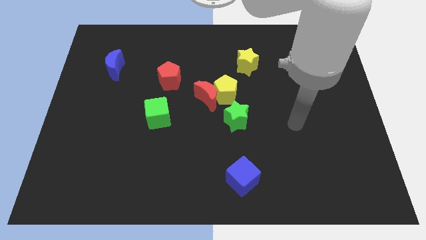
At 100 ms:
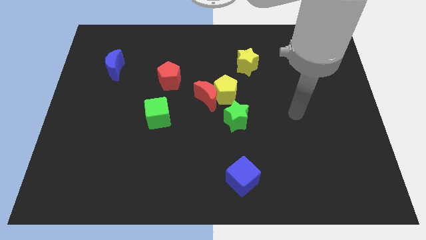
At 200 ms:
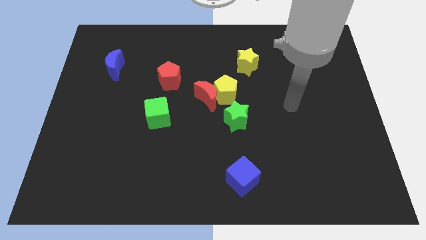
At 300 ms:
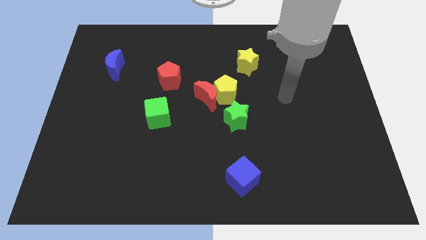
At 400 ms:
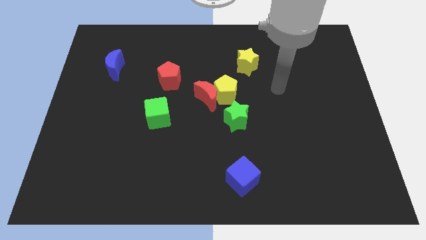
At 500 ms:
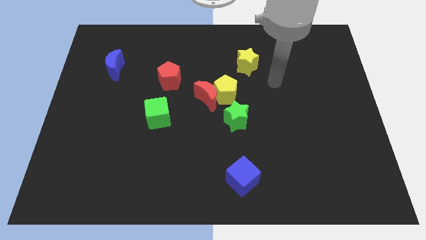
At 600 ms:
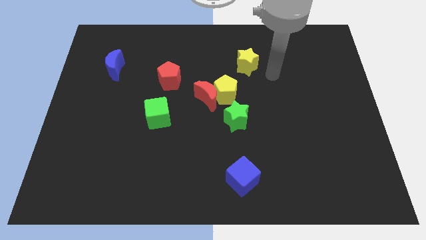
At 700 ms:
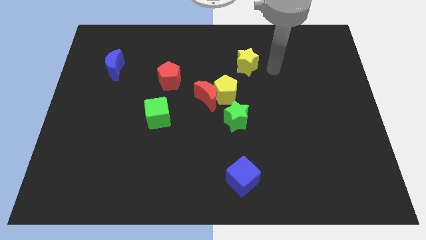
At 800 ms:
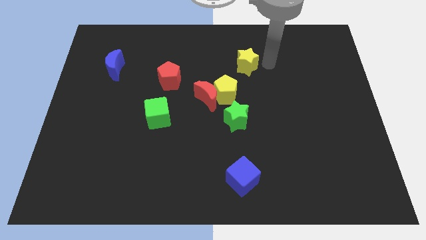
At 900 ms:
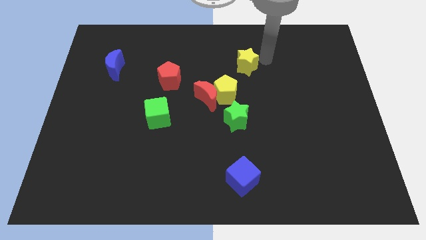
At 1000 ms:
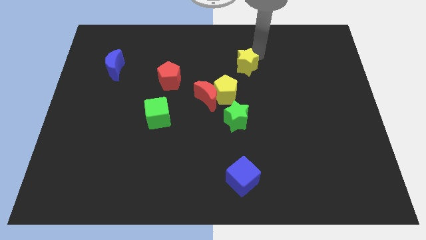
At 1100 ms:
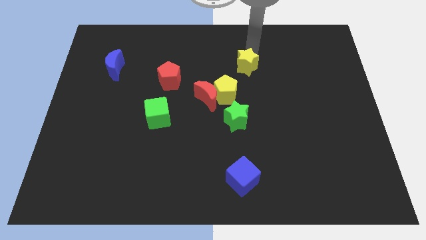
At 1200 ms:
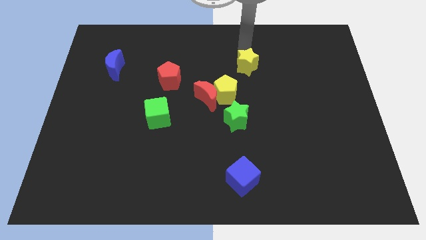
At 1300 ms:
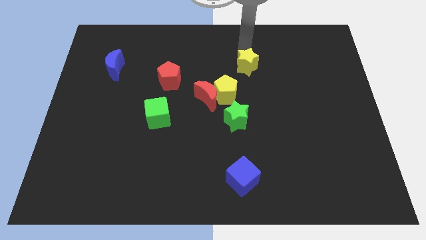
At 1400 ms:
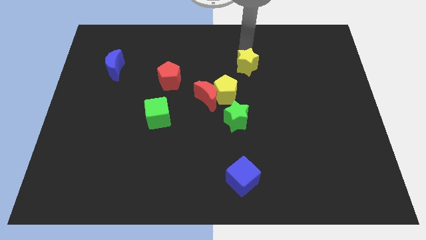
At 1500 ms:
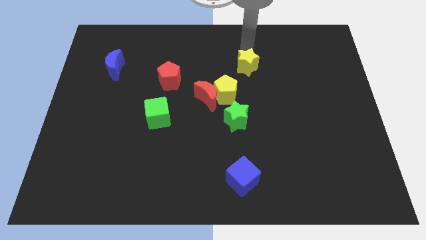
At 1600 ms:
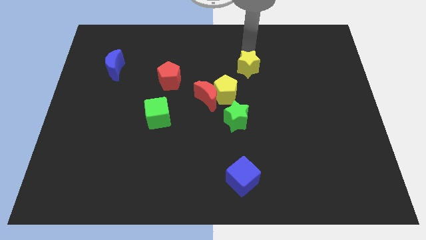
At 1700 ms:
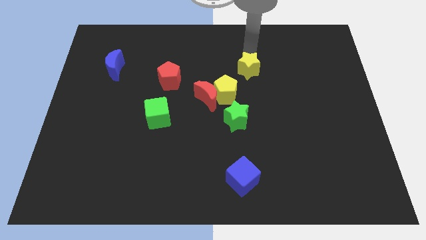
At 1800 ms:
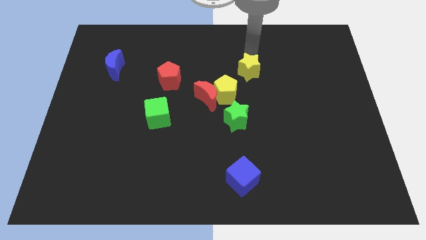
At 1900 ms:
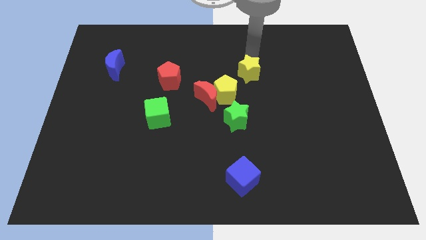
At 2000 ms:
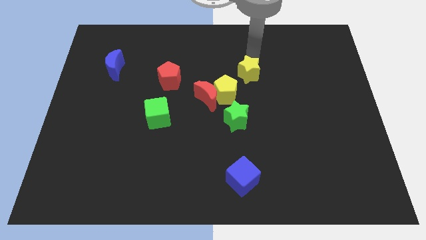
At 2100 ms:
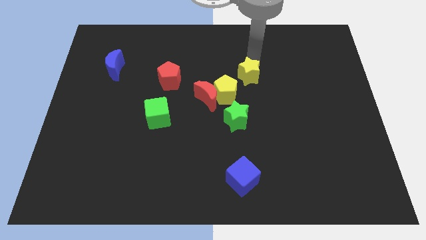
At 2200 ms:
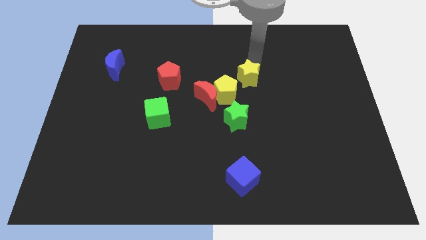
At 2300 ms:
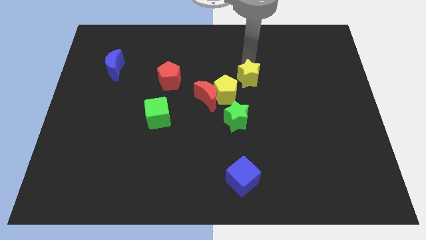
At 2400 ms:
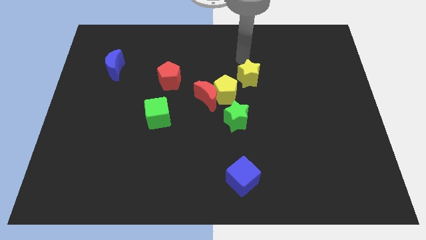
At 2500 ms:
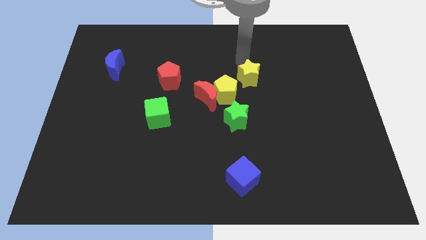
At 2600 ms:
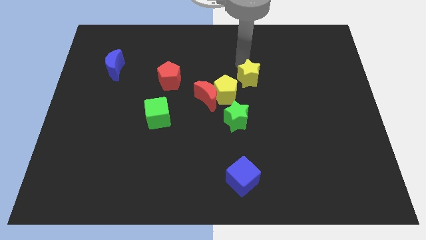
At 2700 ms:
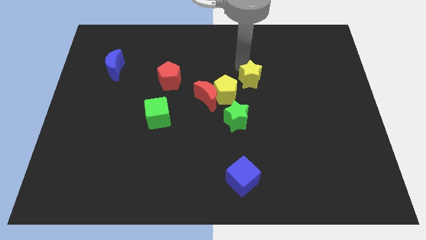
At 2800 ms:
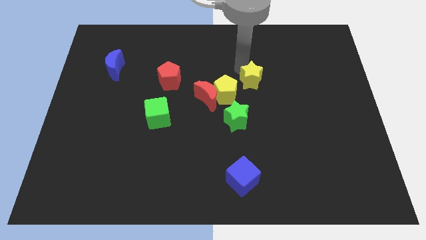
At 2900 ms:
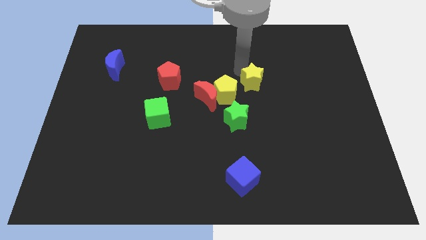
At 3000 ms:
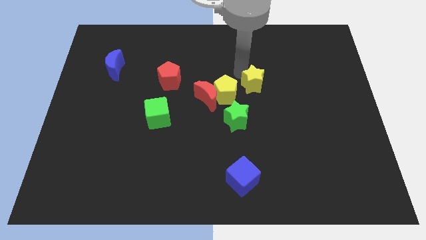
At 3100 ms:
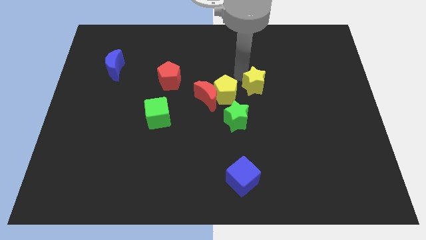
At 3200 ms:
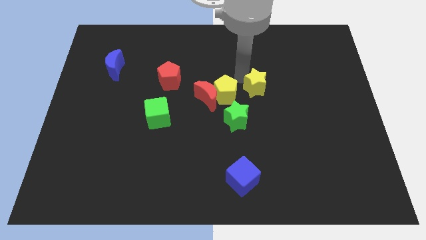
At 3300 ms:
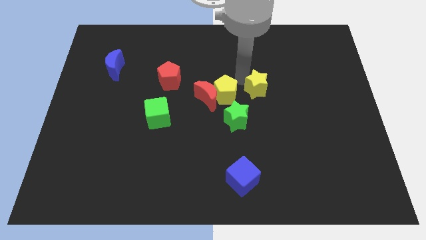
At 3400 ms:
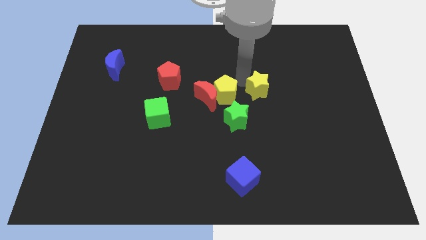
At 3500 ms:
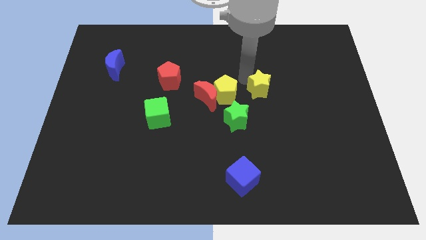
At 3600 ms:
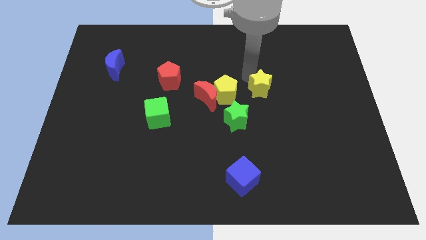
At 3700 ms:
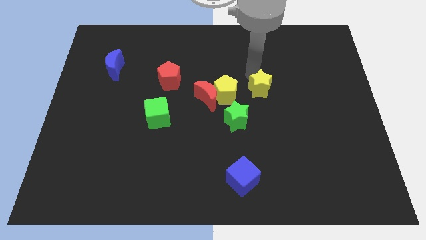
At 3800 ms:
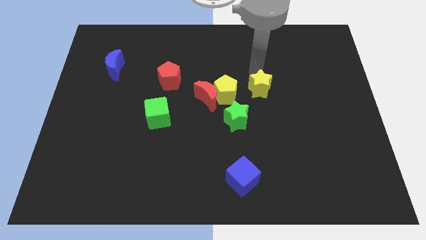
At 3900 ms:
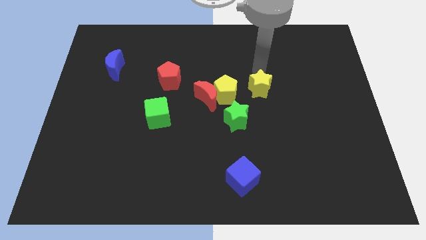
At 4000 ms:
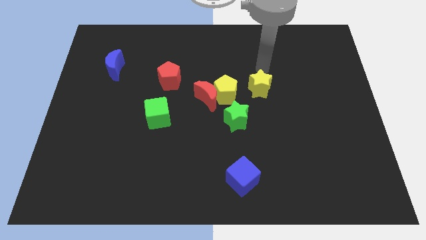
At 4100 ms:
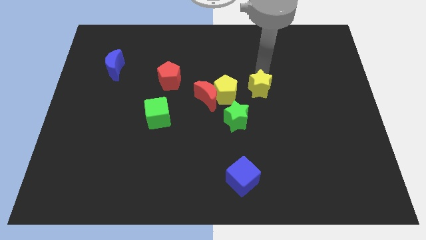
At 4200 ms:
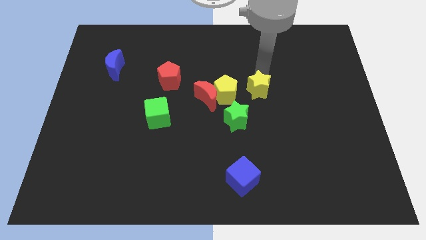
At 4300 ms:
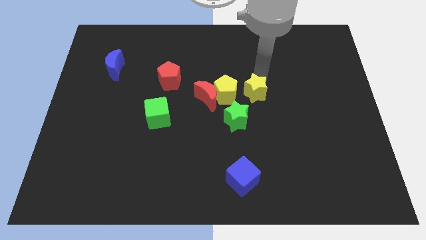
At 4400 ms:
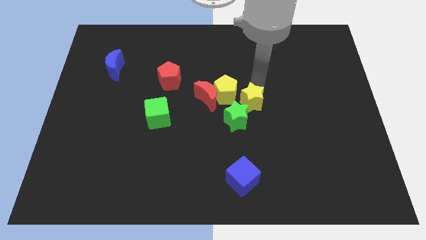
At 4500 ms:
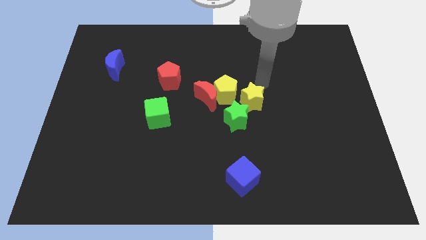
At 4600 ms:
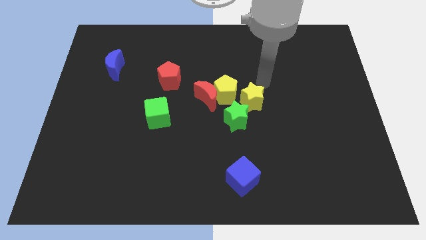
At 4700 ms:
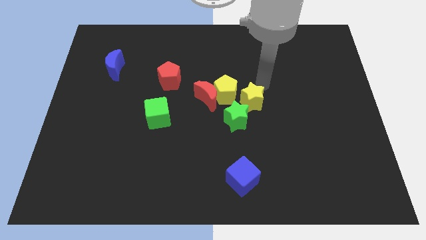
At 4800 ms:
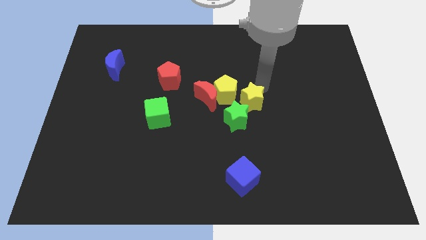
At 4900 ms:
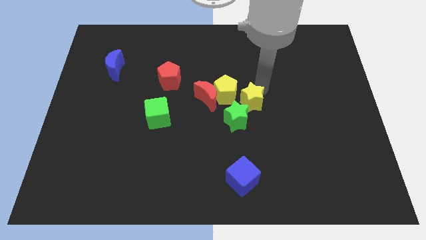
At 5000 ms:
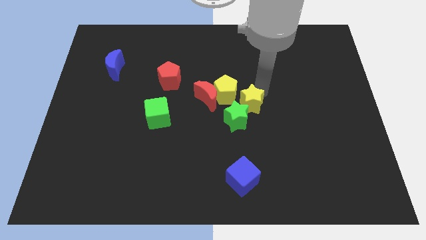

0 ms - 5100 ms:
slide the yellow star towards the green star

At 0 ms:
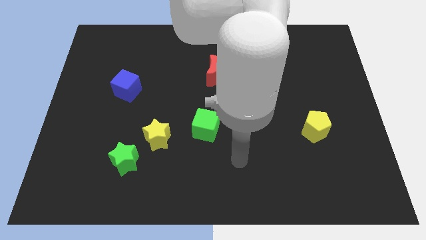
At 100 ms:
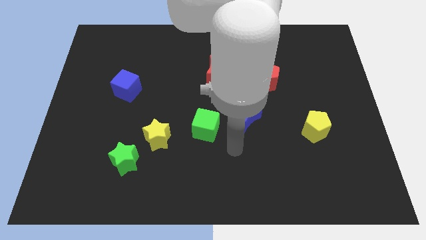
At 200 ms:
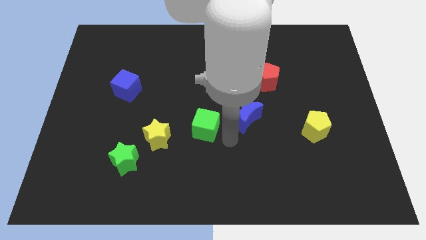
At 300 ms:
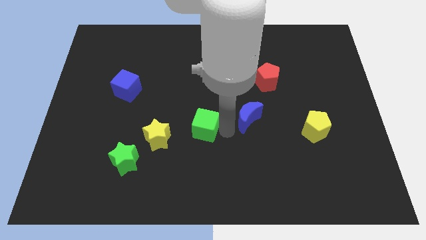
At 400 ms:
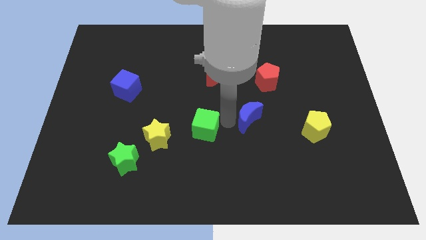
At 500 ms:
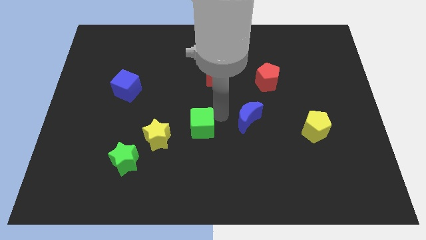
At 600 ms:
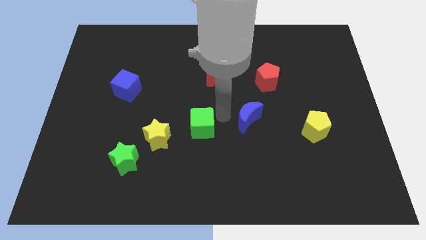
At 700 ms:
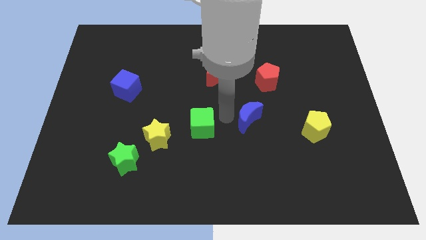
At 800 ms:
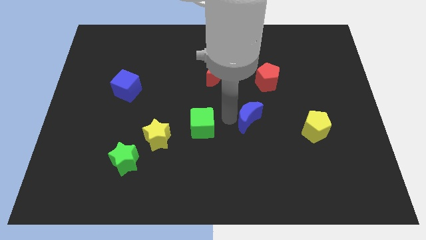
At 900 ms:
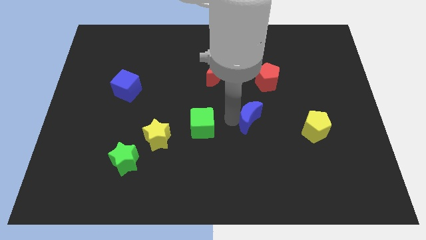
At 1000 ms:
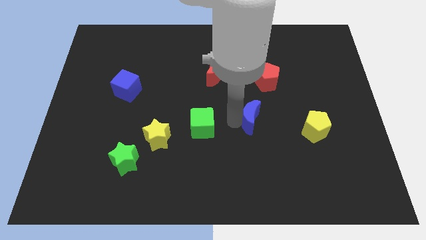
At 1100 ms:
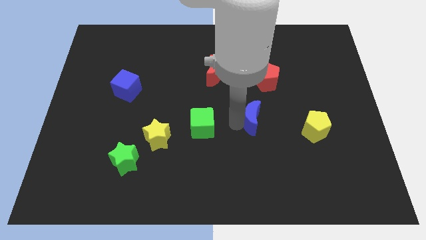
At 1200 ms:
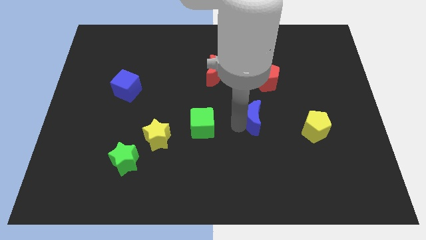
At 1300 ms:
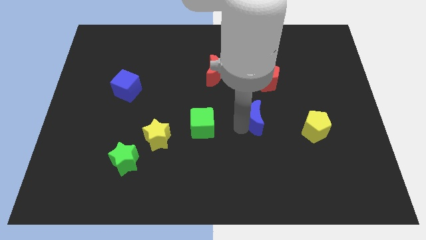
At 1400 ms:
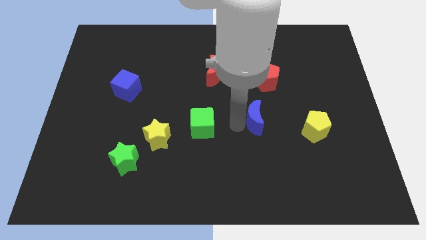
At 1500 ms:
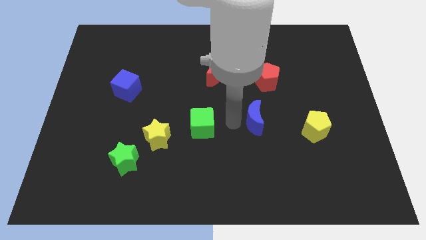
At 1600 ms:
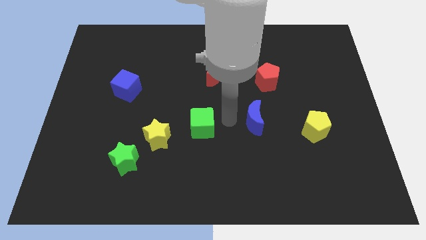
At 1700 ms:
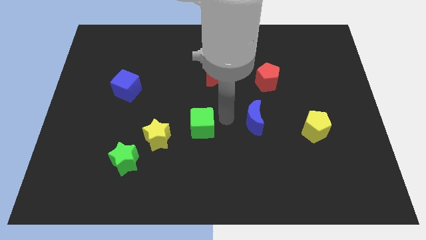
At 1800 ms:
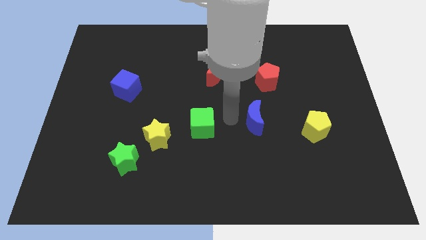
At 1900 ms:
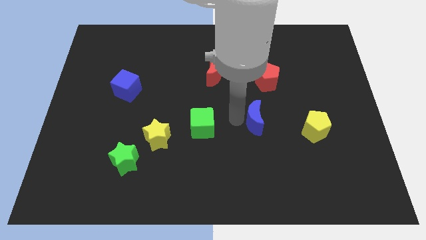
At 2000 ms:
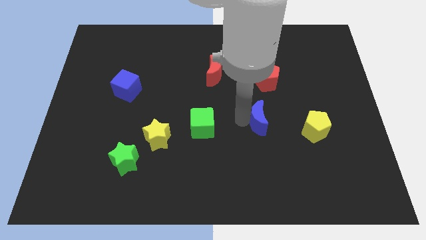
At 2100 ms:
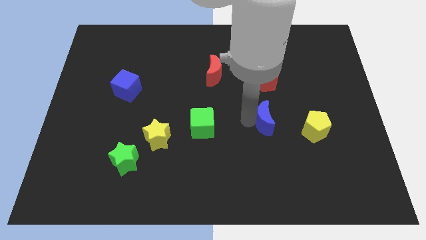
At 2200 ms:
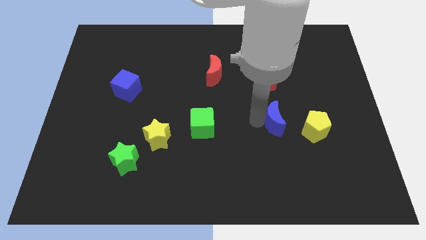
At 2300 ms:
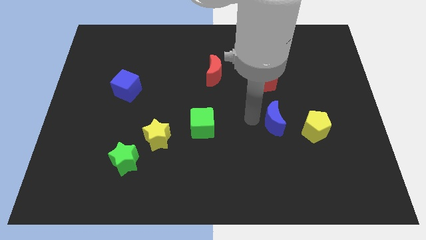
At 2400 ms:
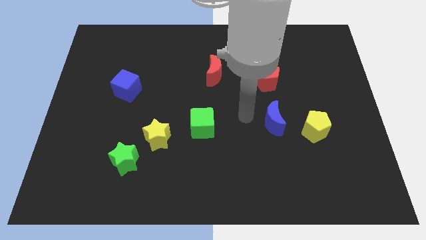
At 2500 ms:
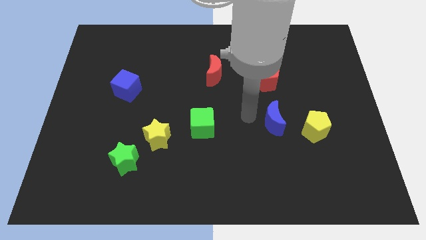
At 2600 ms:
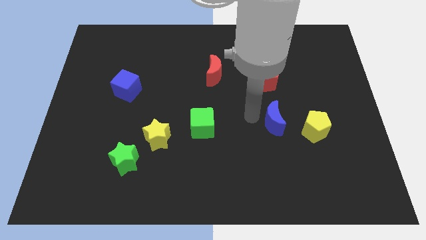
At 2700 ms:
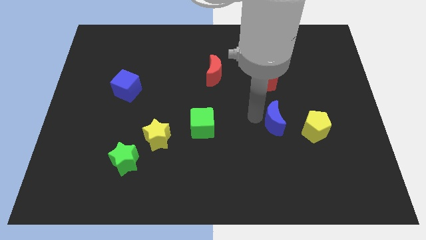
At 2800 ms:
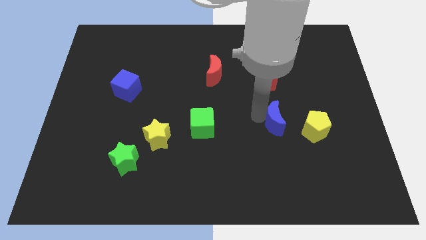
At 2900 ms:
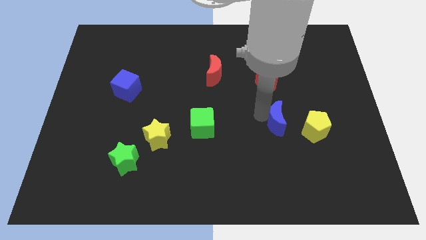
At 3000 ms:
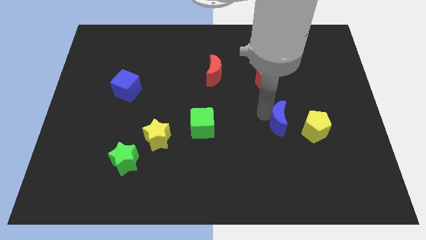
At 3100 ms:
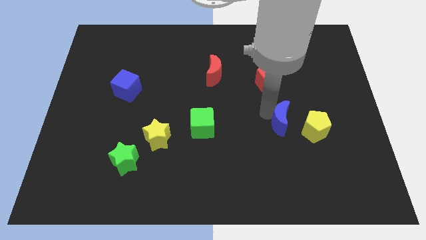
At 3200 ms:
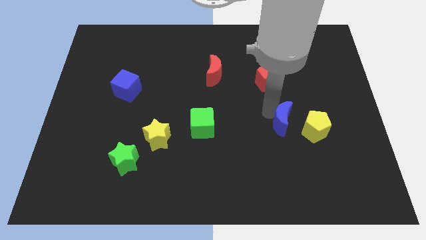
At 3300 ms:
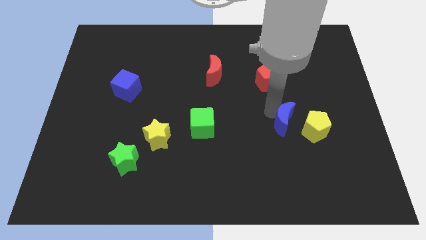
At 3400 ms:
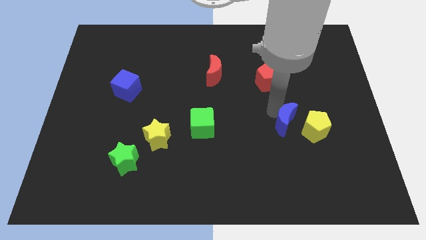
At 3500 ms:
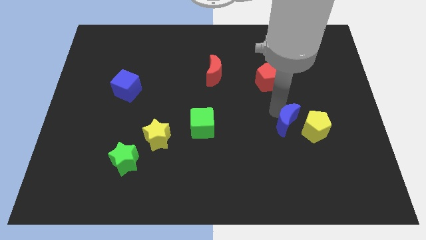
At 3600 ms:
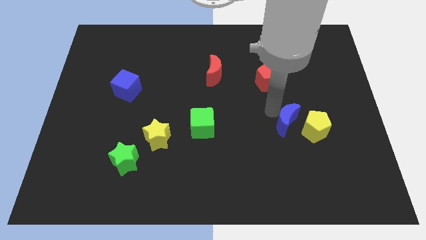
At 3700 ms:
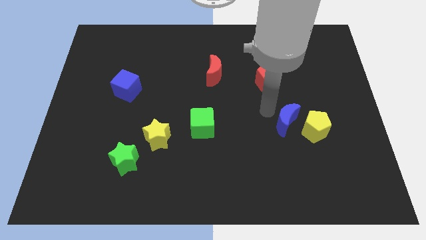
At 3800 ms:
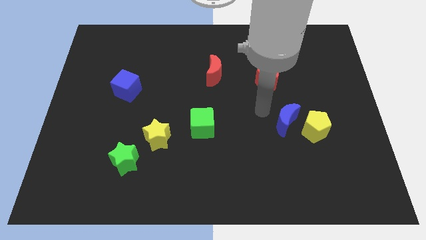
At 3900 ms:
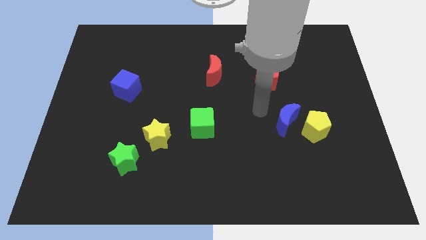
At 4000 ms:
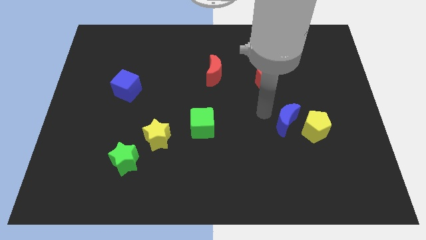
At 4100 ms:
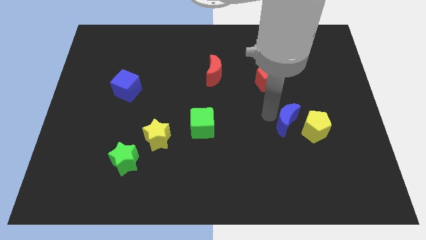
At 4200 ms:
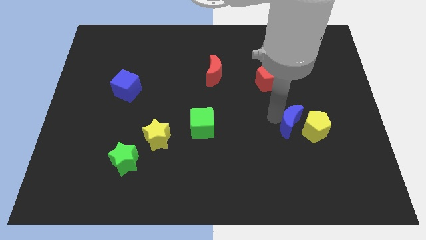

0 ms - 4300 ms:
slide the blue moon to the yellow pentagon
